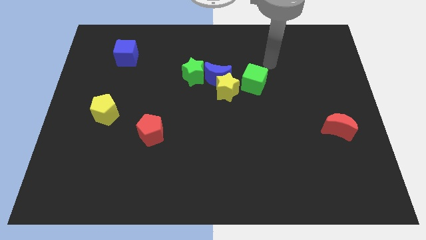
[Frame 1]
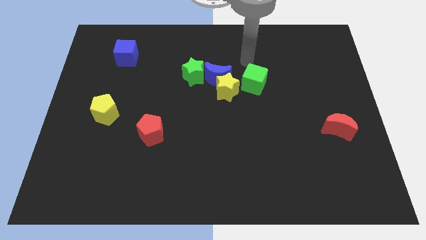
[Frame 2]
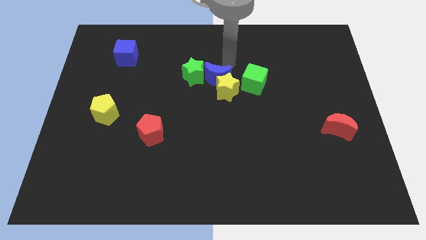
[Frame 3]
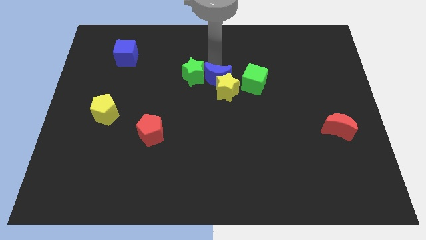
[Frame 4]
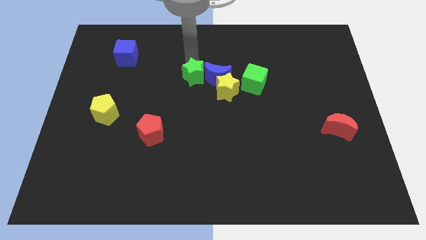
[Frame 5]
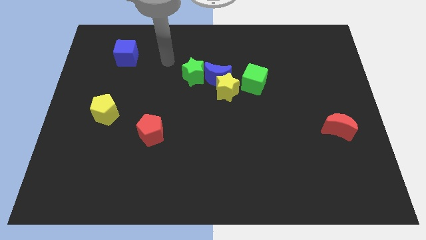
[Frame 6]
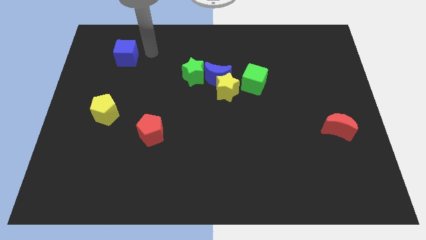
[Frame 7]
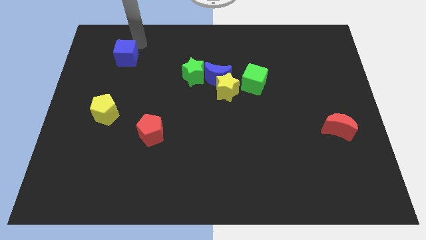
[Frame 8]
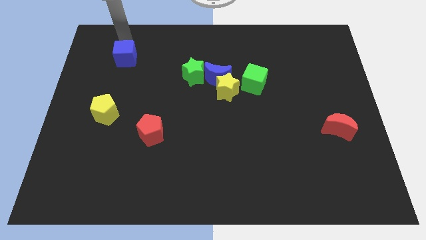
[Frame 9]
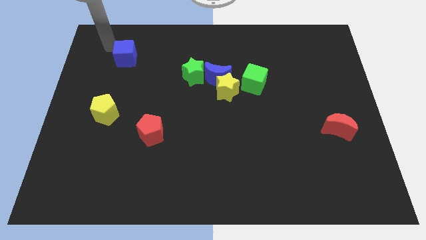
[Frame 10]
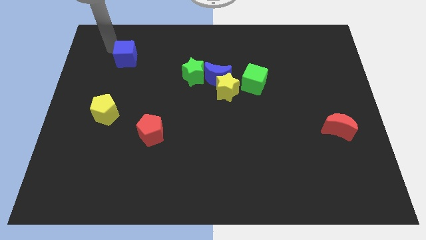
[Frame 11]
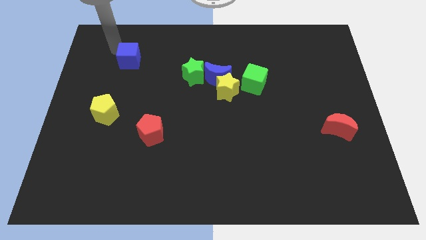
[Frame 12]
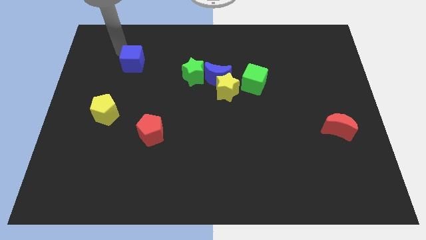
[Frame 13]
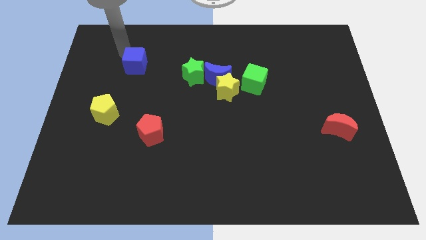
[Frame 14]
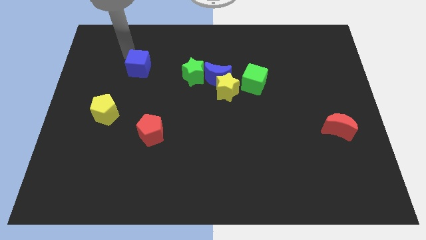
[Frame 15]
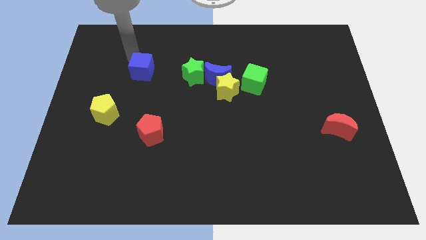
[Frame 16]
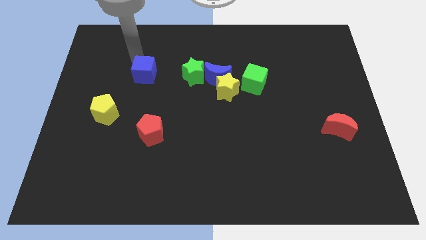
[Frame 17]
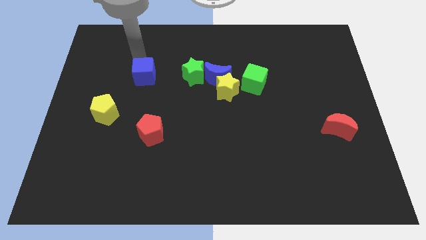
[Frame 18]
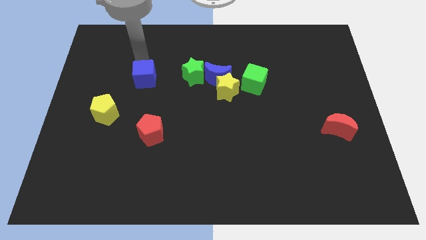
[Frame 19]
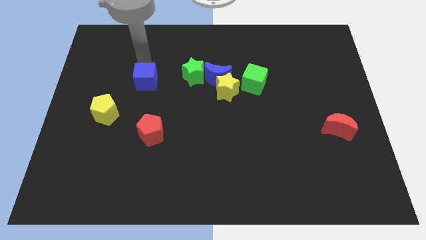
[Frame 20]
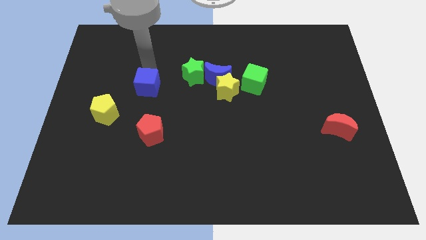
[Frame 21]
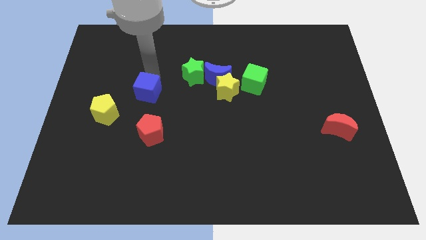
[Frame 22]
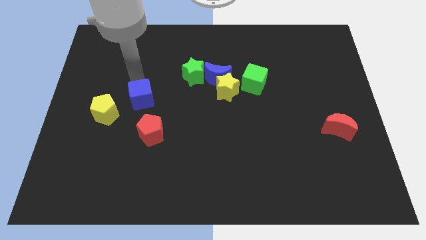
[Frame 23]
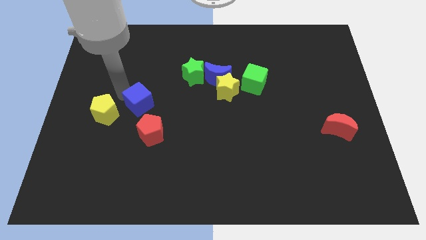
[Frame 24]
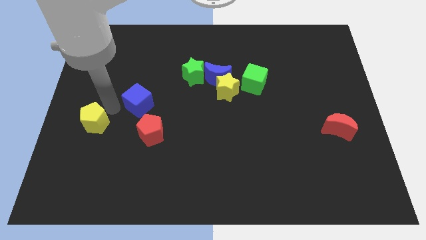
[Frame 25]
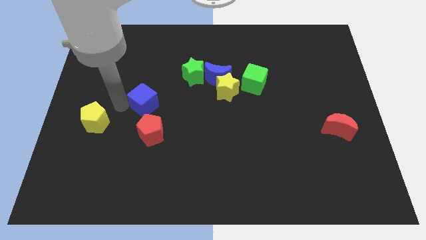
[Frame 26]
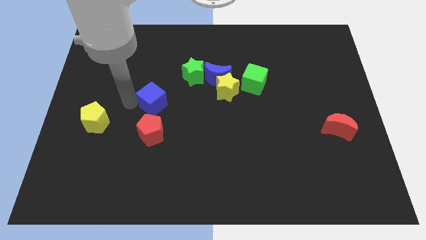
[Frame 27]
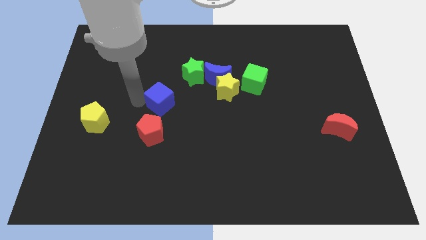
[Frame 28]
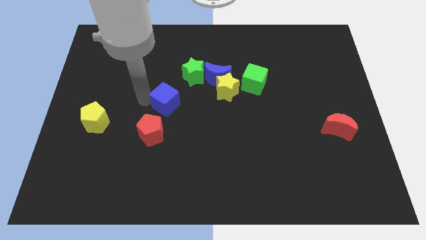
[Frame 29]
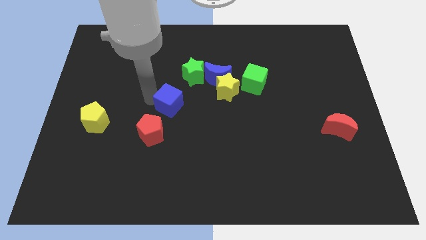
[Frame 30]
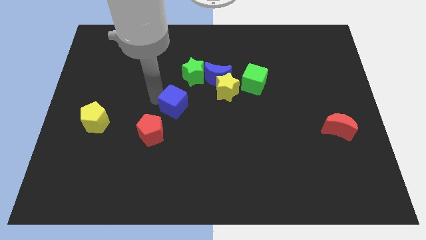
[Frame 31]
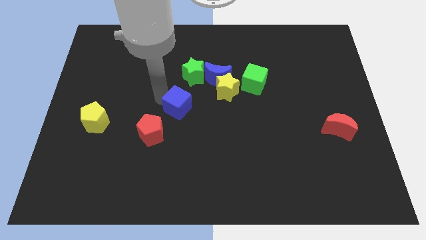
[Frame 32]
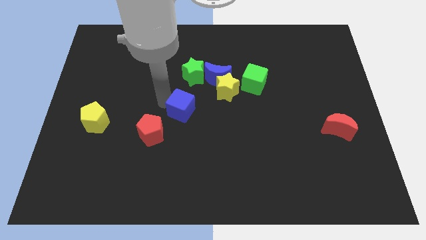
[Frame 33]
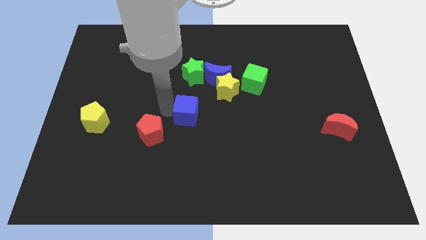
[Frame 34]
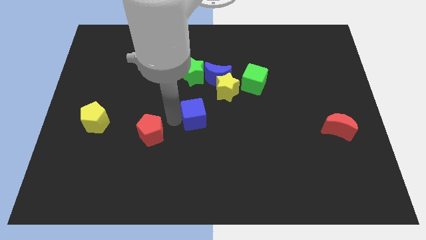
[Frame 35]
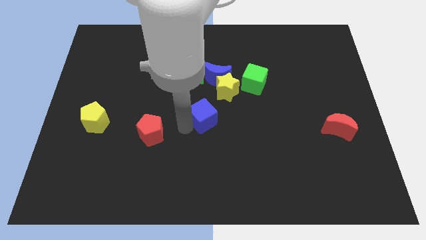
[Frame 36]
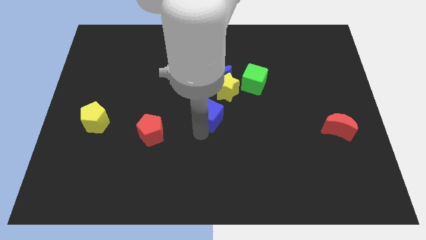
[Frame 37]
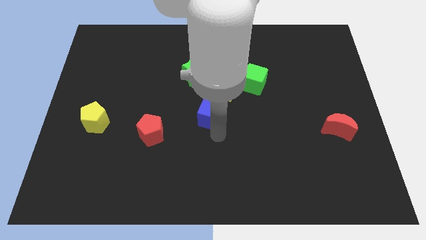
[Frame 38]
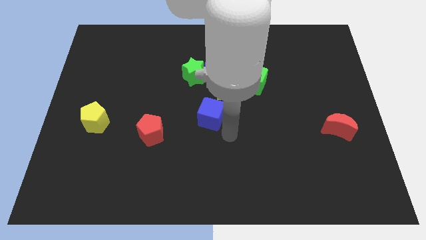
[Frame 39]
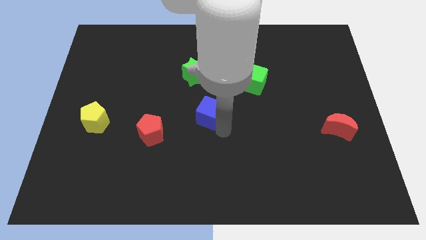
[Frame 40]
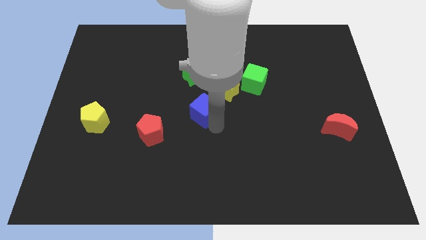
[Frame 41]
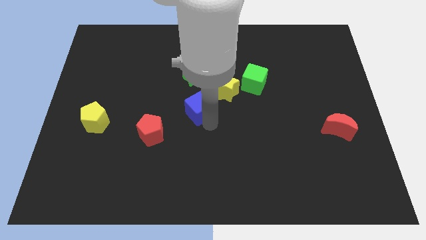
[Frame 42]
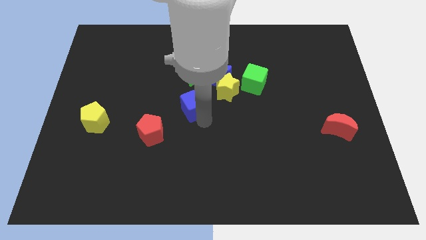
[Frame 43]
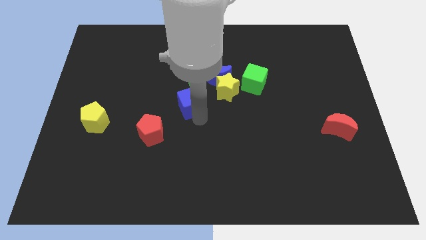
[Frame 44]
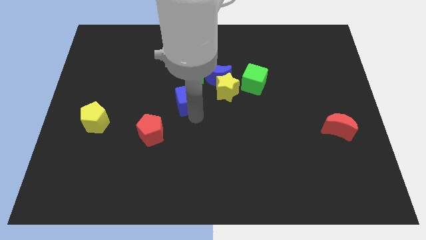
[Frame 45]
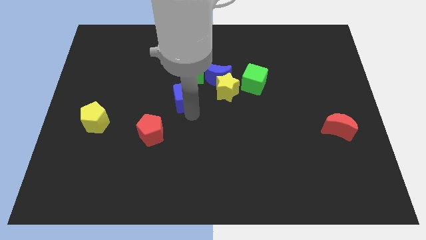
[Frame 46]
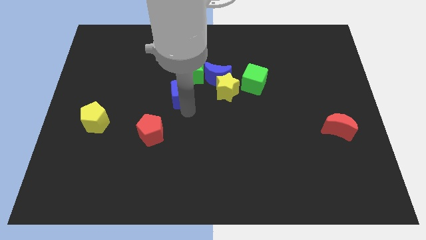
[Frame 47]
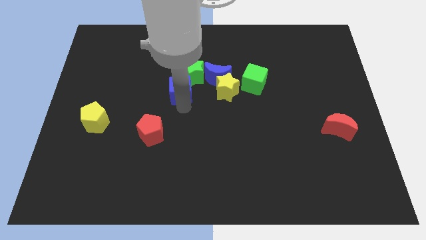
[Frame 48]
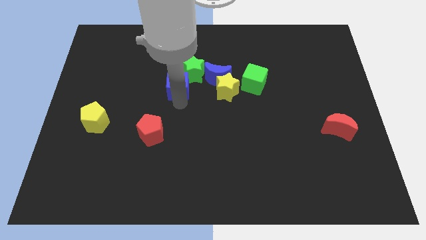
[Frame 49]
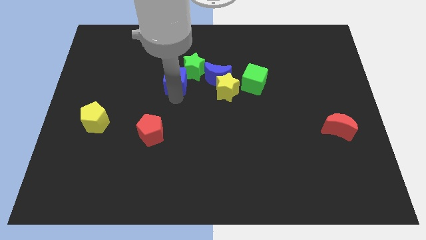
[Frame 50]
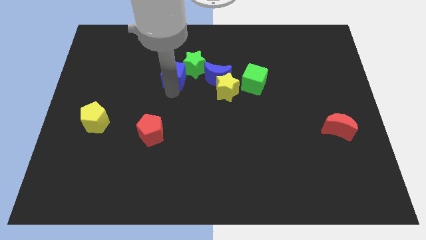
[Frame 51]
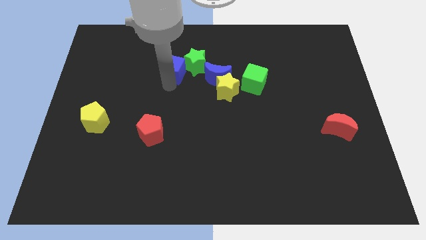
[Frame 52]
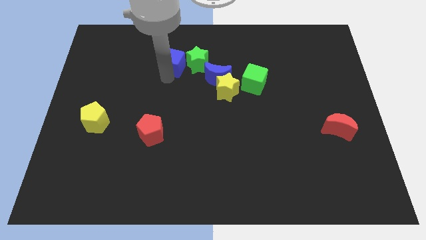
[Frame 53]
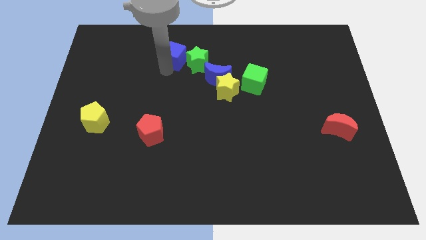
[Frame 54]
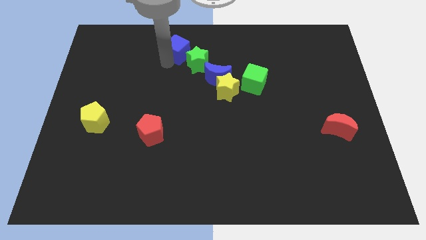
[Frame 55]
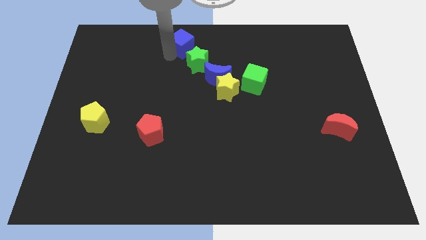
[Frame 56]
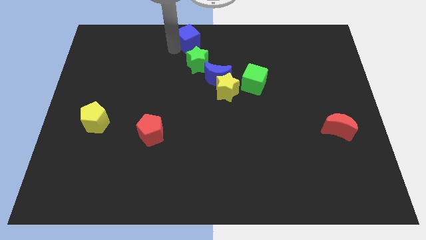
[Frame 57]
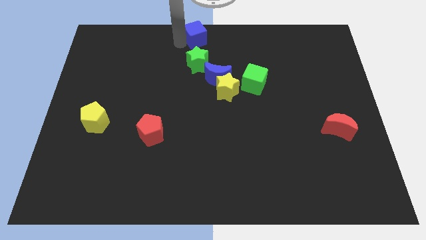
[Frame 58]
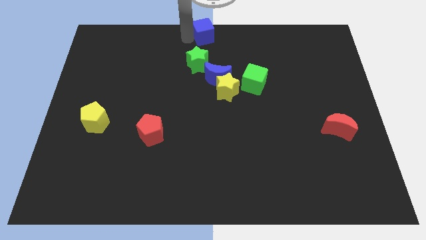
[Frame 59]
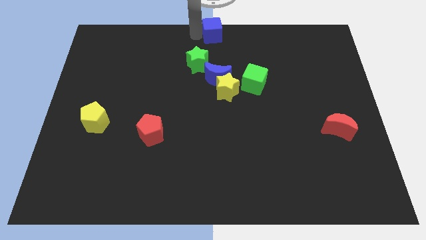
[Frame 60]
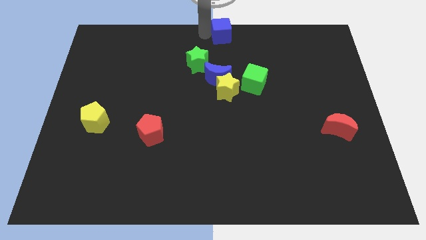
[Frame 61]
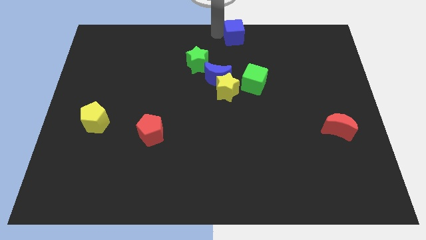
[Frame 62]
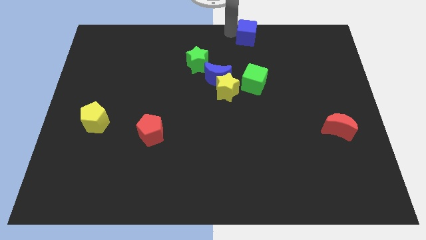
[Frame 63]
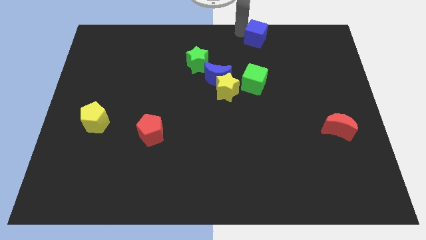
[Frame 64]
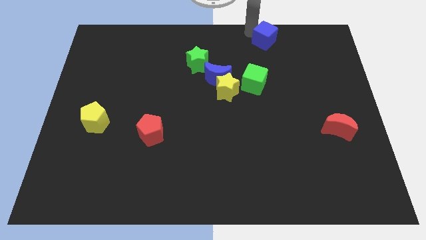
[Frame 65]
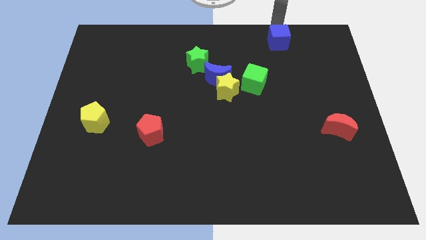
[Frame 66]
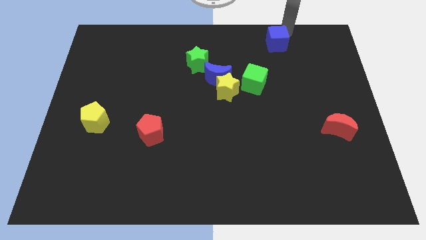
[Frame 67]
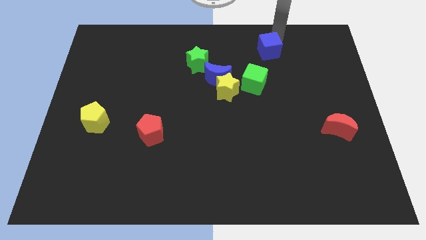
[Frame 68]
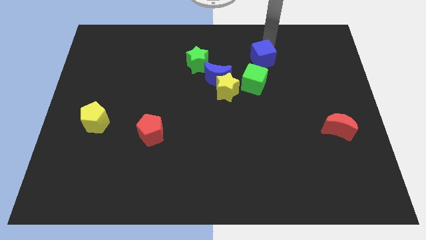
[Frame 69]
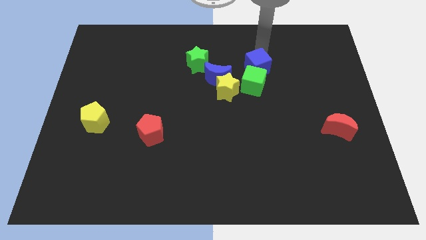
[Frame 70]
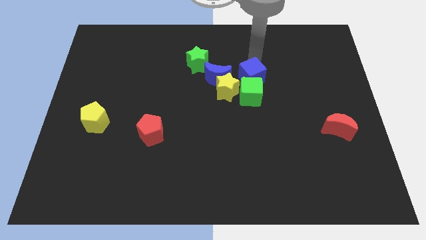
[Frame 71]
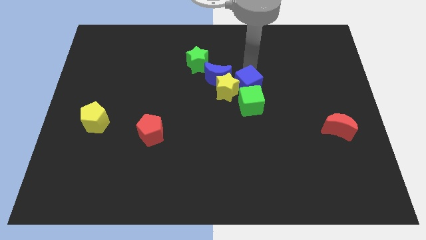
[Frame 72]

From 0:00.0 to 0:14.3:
move the blue cube to the yellow star

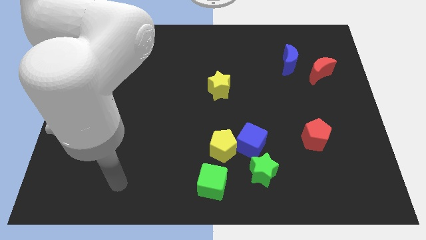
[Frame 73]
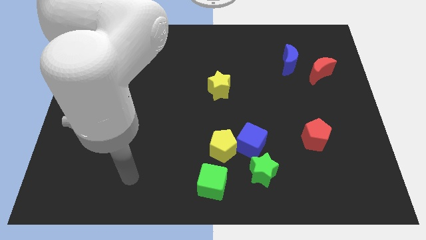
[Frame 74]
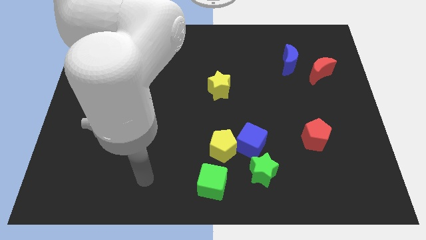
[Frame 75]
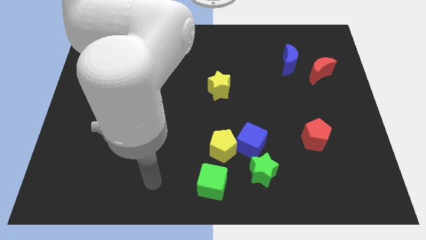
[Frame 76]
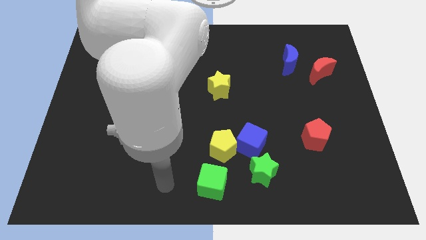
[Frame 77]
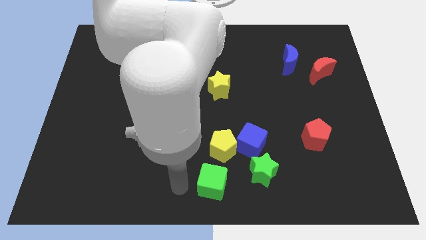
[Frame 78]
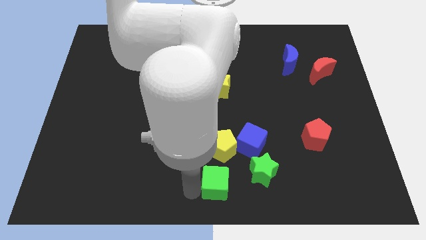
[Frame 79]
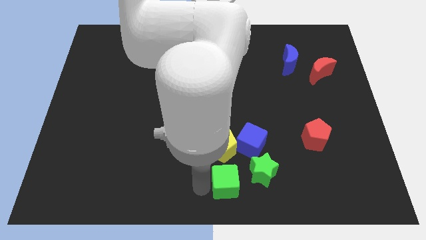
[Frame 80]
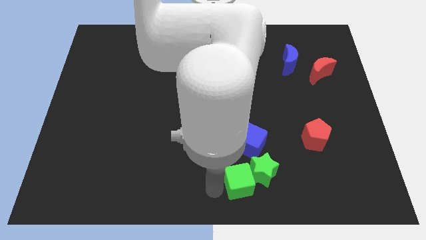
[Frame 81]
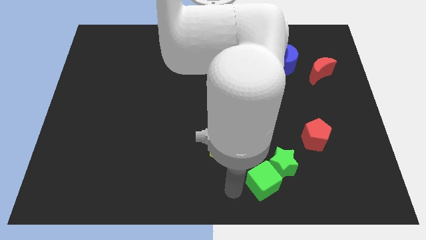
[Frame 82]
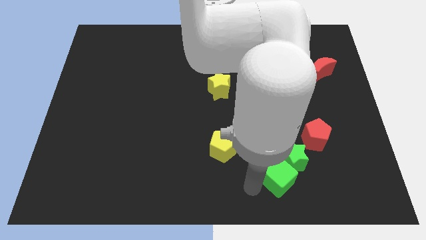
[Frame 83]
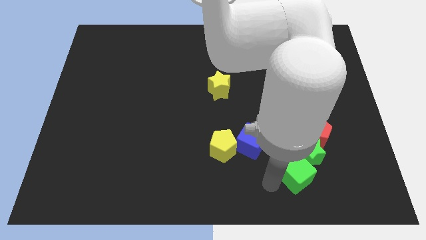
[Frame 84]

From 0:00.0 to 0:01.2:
slide the green star towards the red pentagon

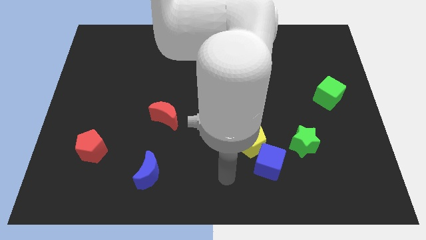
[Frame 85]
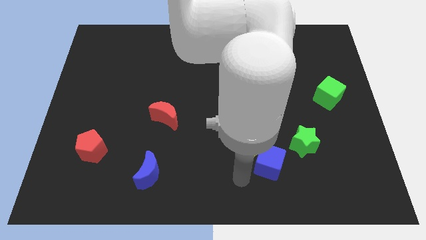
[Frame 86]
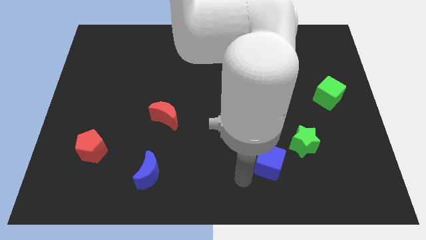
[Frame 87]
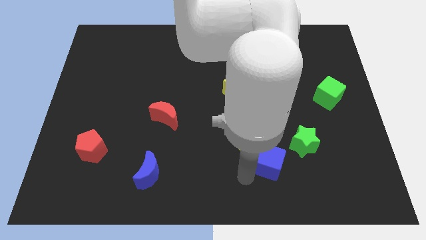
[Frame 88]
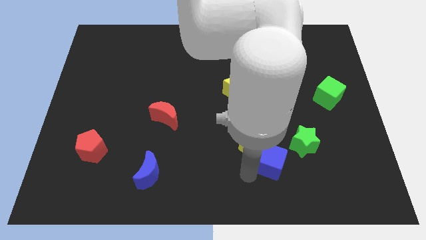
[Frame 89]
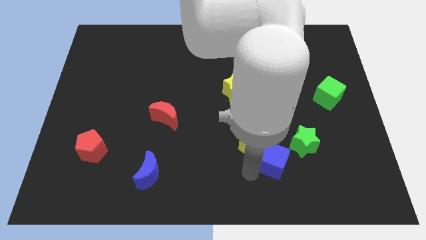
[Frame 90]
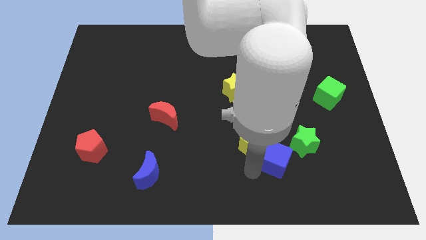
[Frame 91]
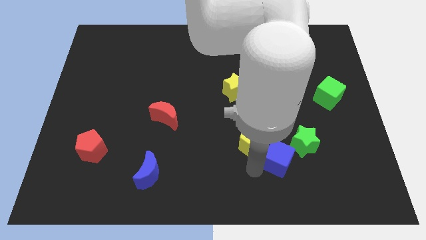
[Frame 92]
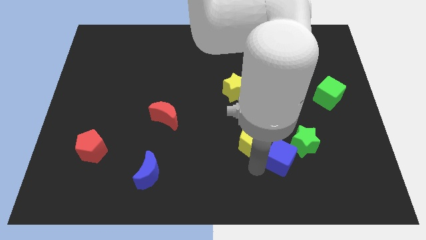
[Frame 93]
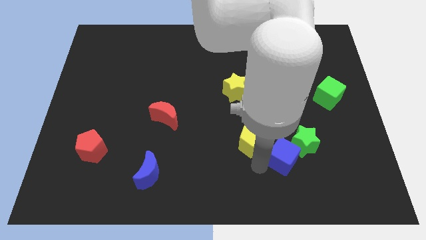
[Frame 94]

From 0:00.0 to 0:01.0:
push the blue cube next to the green star
